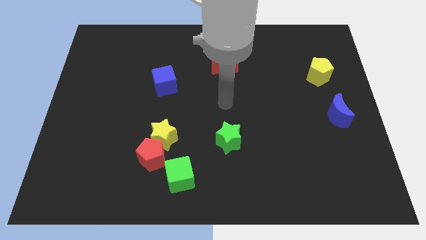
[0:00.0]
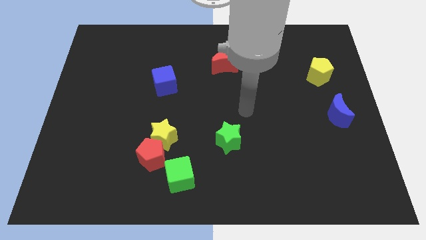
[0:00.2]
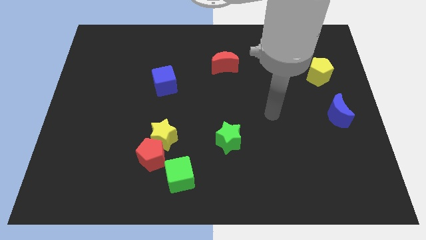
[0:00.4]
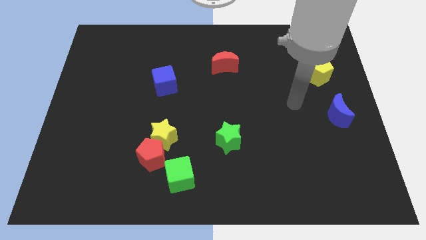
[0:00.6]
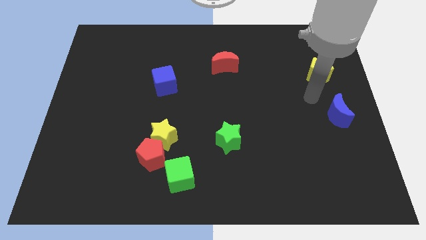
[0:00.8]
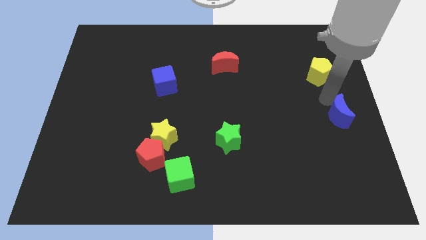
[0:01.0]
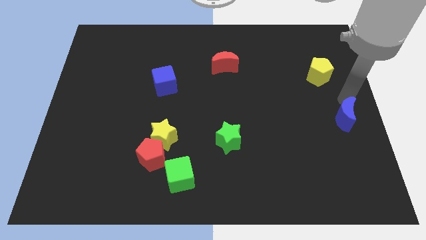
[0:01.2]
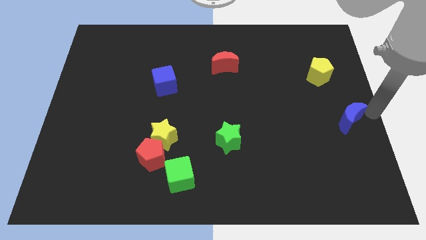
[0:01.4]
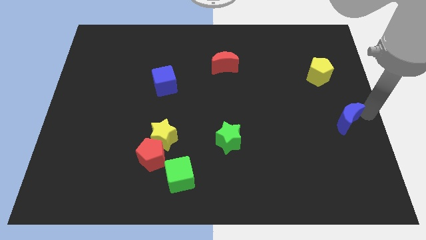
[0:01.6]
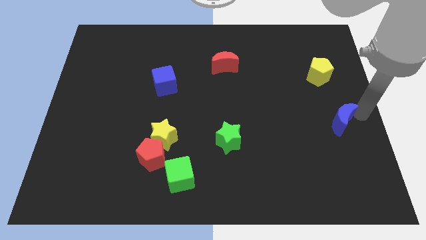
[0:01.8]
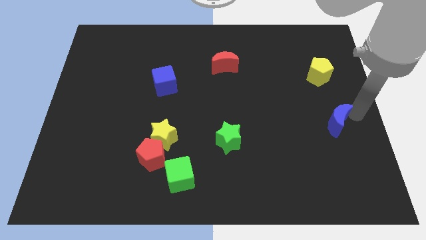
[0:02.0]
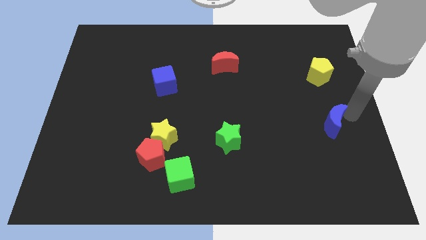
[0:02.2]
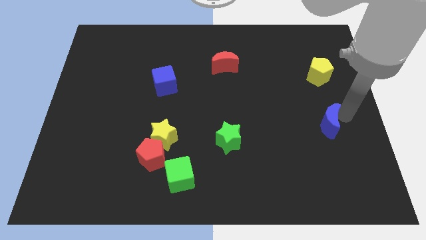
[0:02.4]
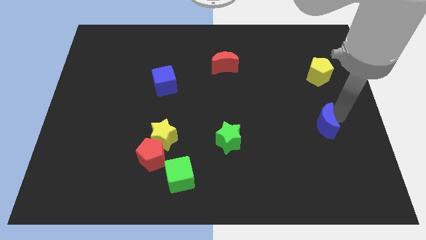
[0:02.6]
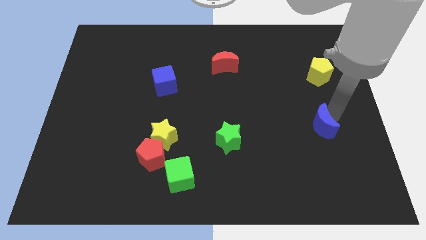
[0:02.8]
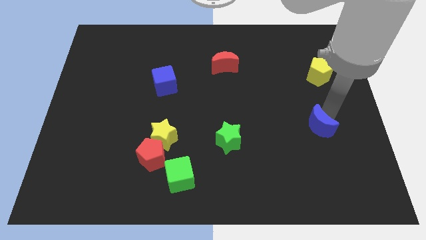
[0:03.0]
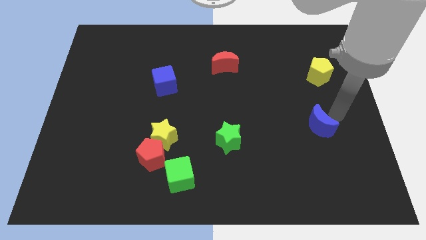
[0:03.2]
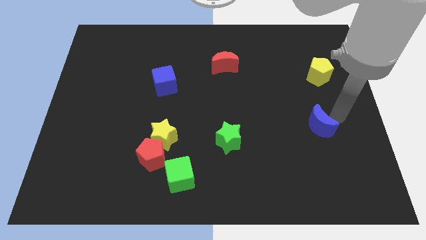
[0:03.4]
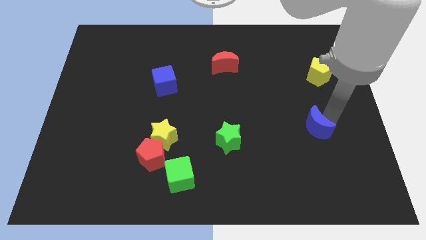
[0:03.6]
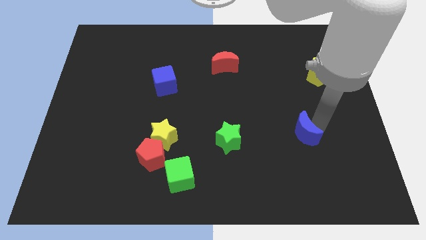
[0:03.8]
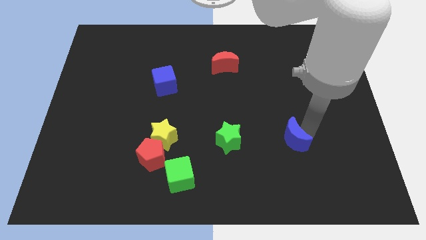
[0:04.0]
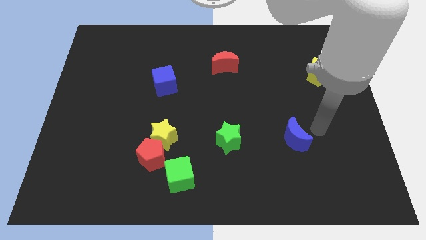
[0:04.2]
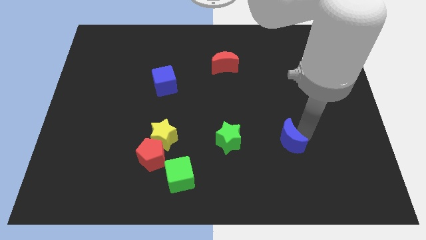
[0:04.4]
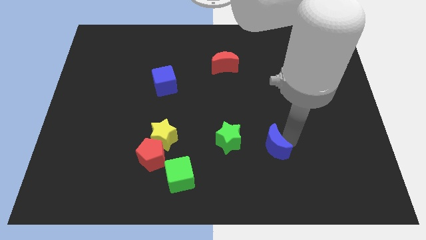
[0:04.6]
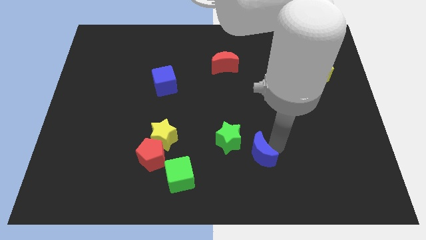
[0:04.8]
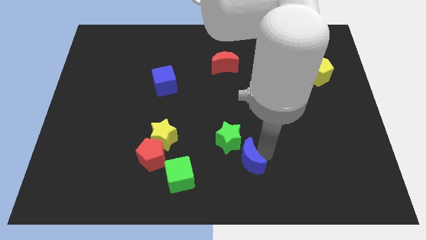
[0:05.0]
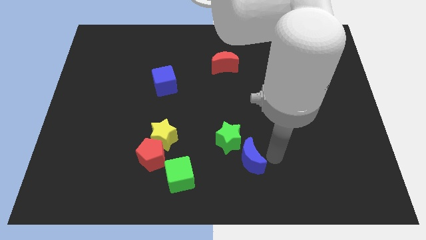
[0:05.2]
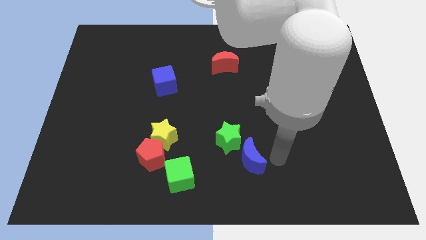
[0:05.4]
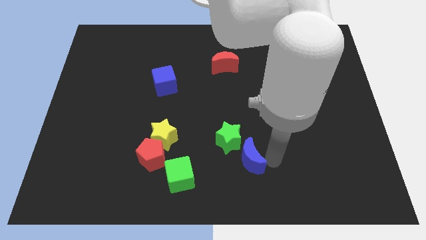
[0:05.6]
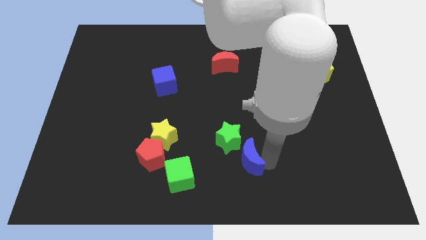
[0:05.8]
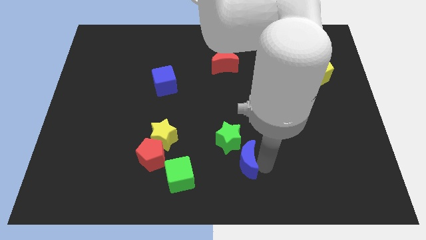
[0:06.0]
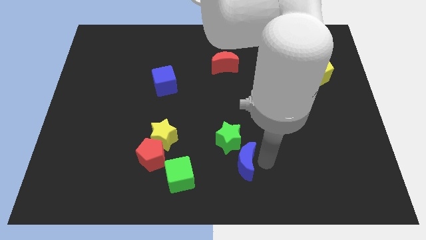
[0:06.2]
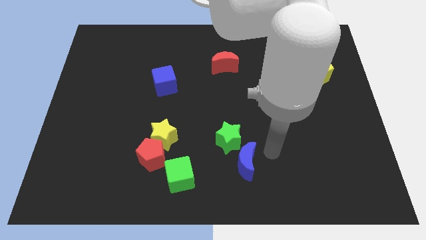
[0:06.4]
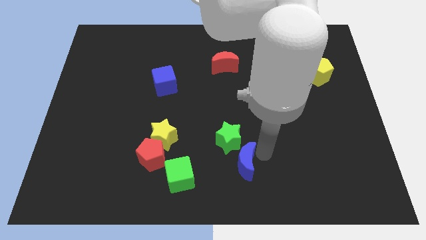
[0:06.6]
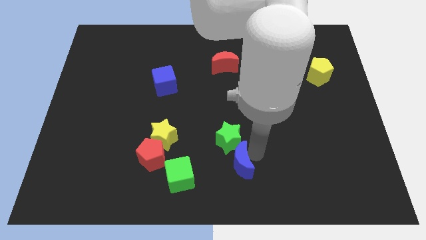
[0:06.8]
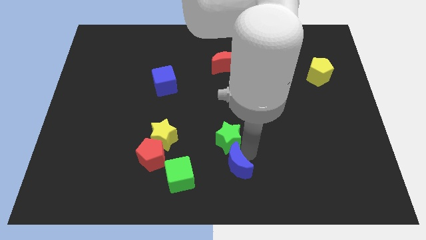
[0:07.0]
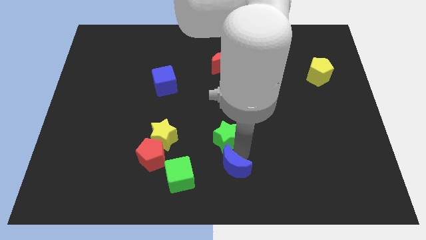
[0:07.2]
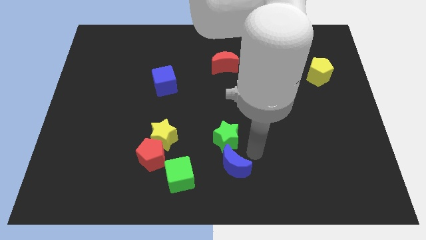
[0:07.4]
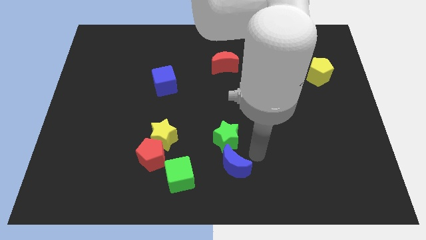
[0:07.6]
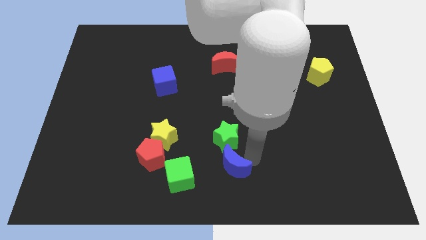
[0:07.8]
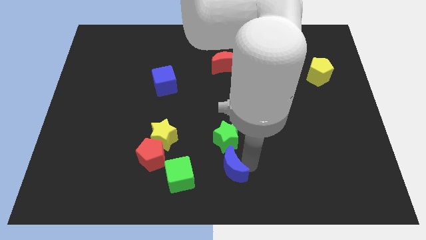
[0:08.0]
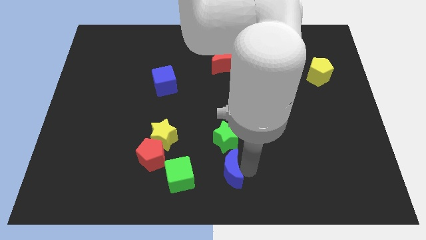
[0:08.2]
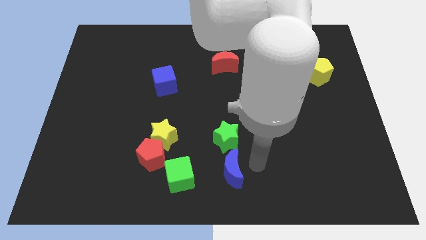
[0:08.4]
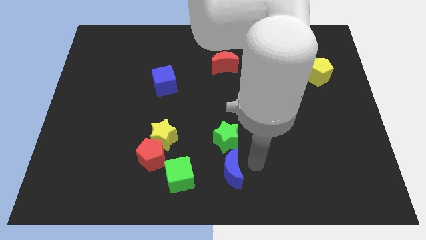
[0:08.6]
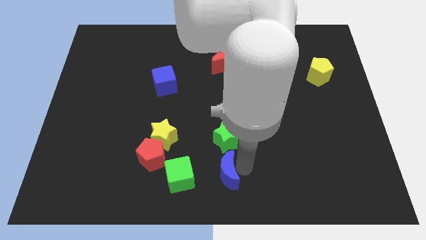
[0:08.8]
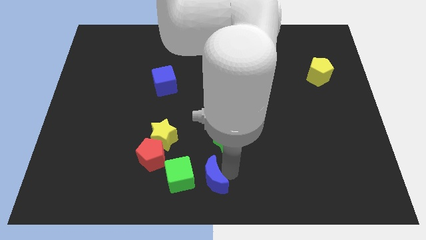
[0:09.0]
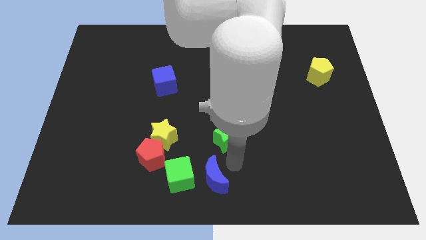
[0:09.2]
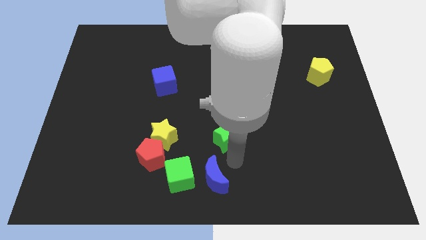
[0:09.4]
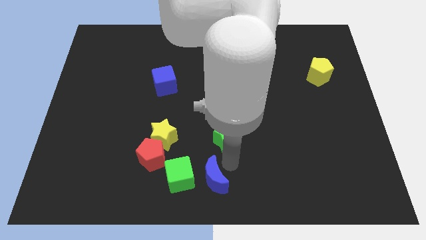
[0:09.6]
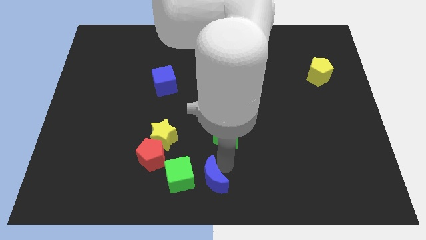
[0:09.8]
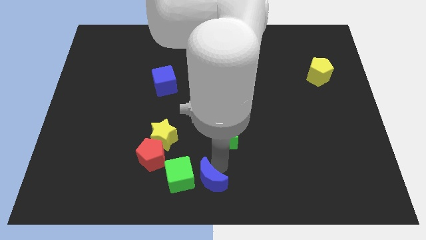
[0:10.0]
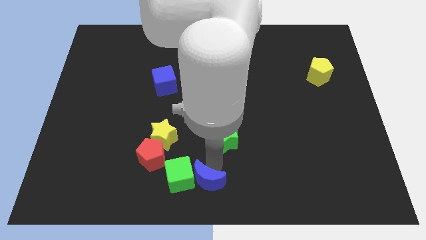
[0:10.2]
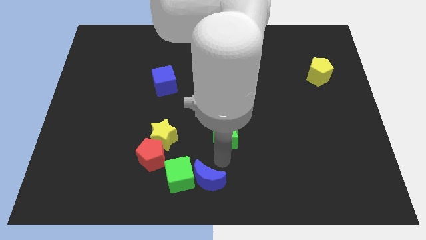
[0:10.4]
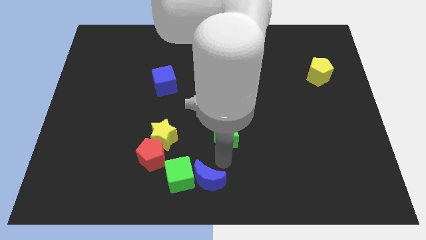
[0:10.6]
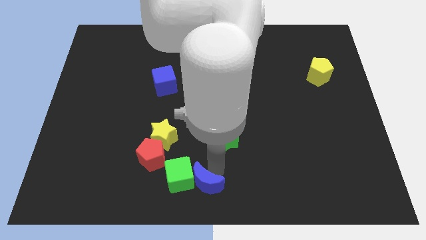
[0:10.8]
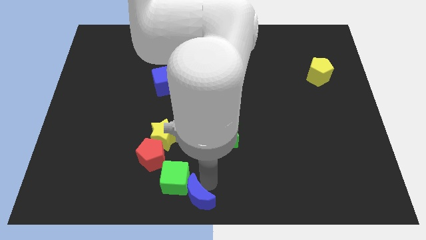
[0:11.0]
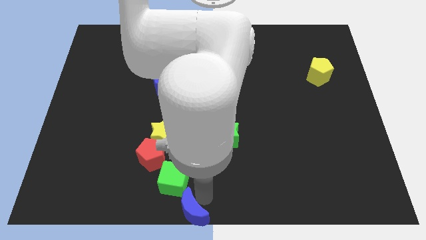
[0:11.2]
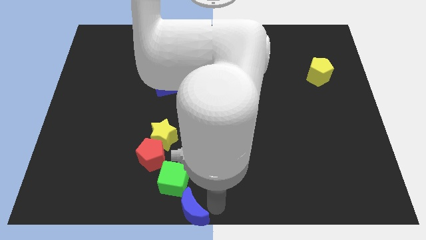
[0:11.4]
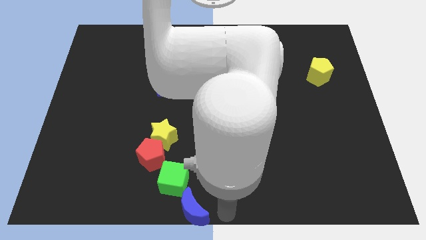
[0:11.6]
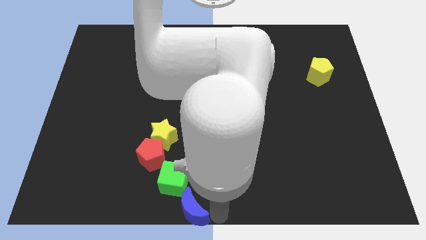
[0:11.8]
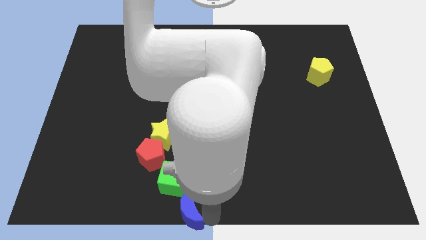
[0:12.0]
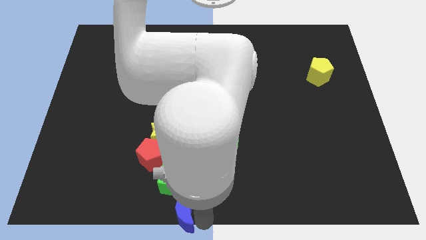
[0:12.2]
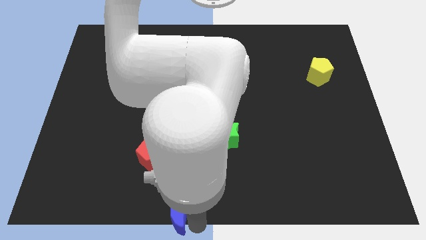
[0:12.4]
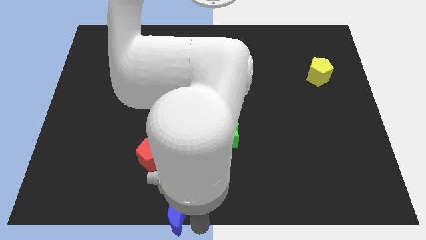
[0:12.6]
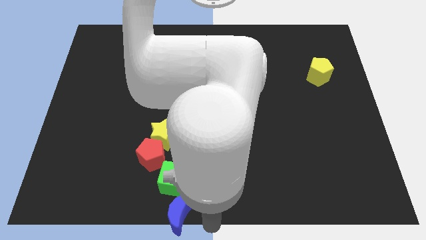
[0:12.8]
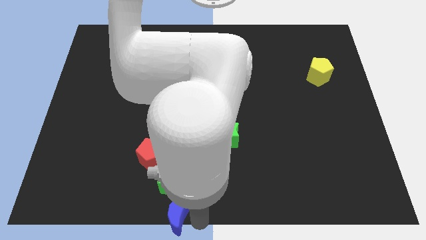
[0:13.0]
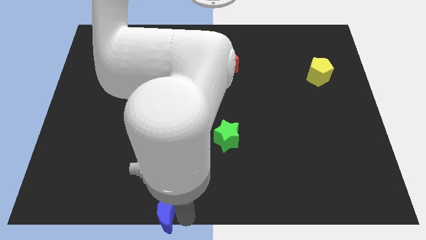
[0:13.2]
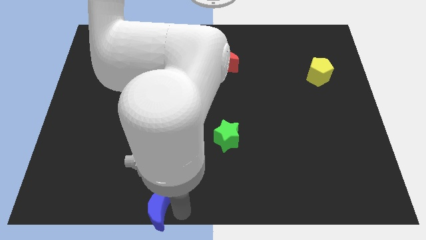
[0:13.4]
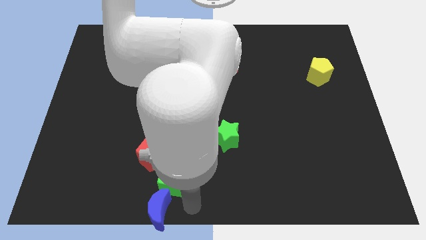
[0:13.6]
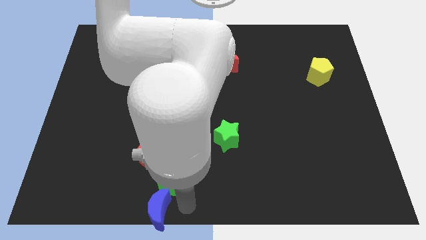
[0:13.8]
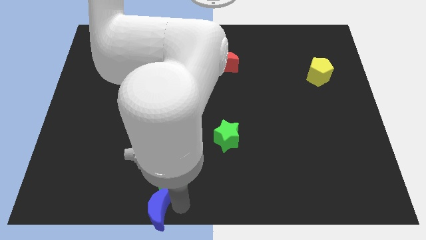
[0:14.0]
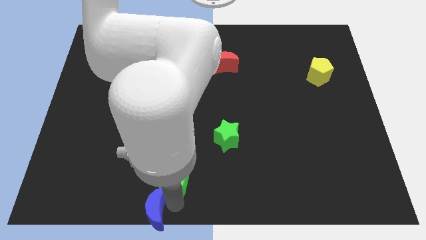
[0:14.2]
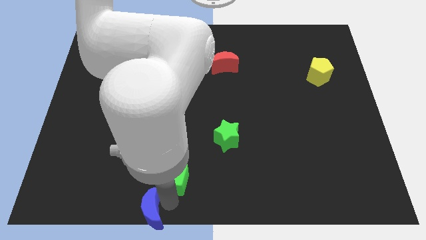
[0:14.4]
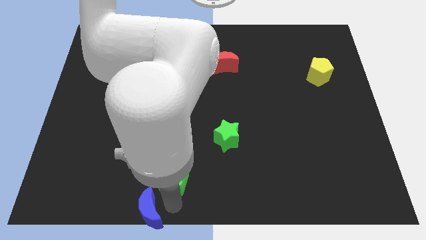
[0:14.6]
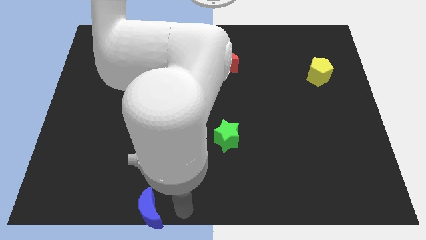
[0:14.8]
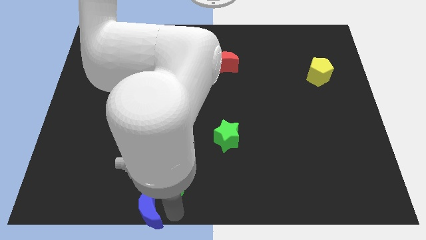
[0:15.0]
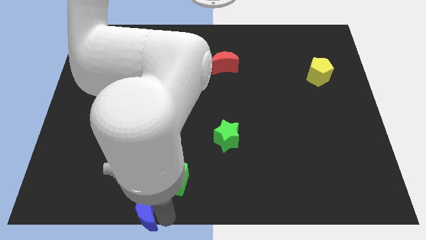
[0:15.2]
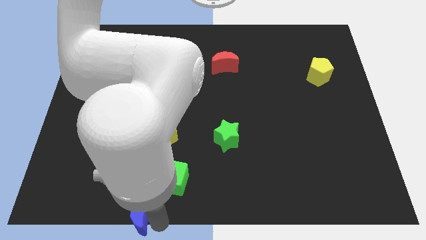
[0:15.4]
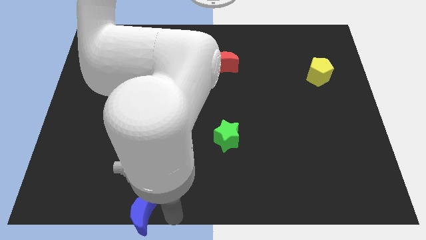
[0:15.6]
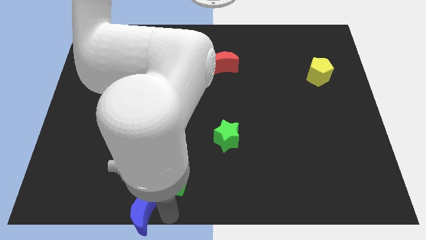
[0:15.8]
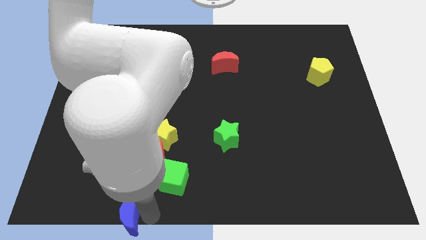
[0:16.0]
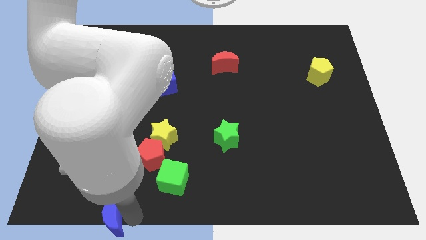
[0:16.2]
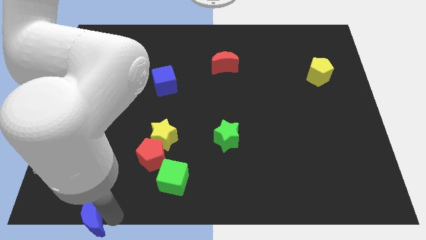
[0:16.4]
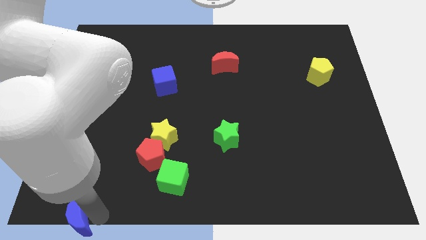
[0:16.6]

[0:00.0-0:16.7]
move the blue moon to the bottom left corner
